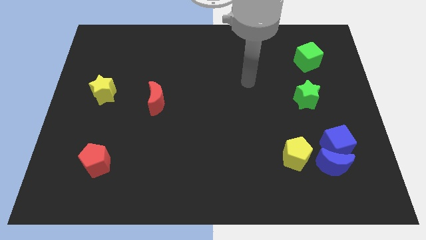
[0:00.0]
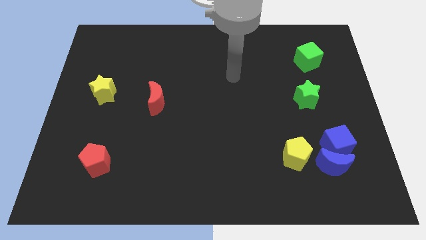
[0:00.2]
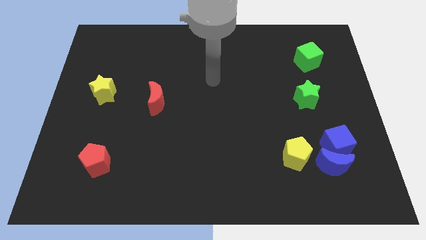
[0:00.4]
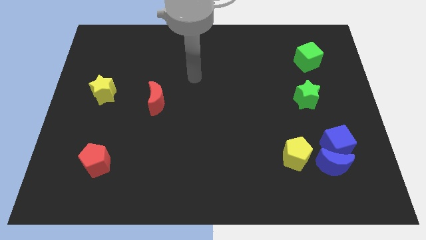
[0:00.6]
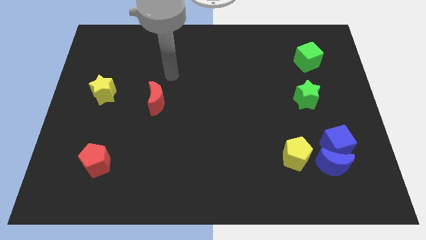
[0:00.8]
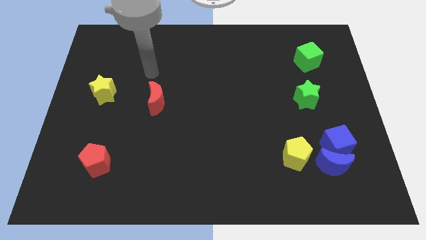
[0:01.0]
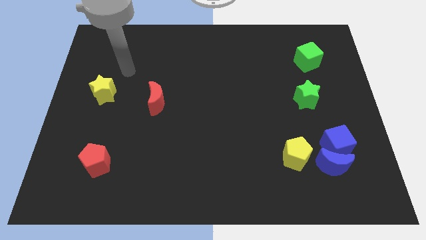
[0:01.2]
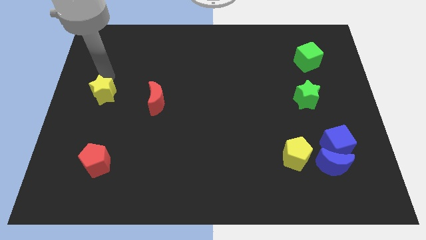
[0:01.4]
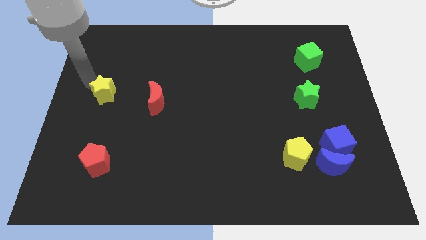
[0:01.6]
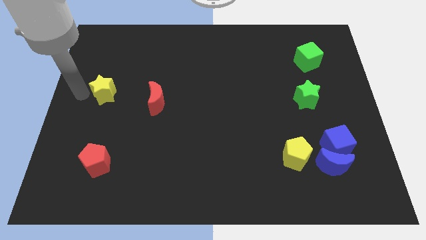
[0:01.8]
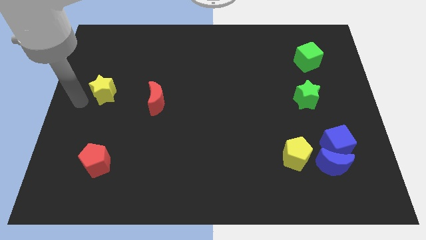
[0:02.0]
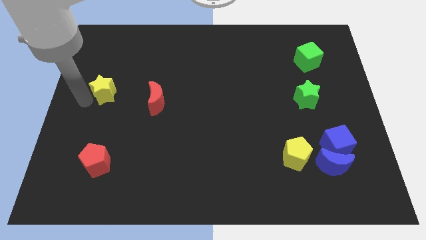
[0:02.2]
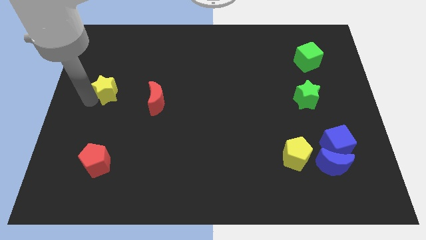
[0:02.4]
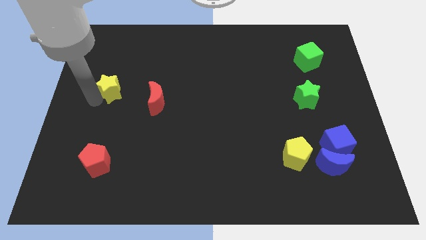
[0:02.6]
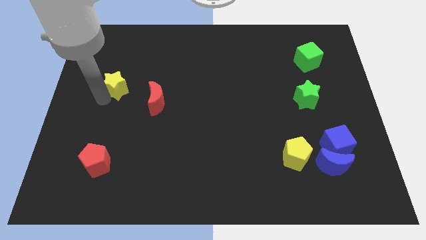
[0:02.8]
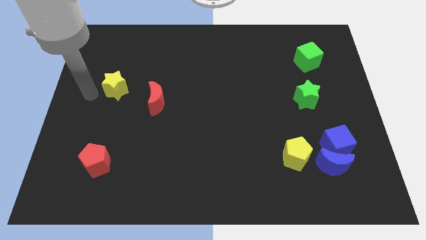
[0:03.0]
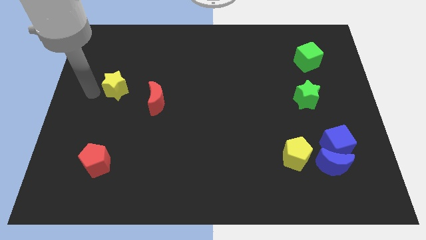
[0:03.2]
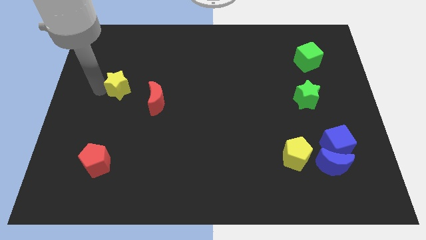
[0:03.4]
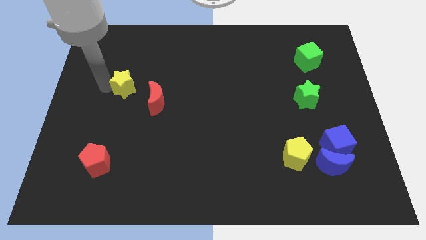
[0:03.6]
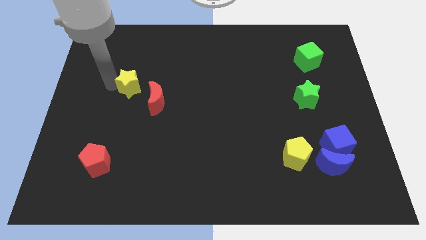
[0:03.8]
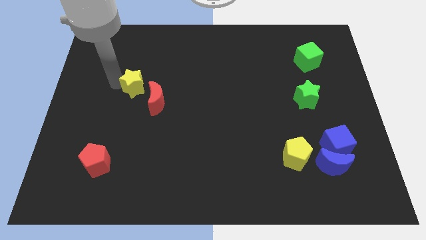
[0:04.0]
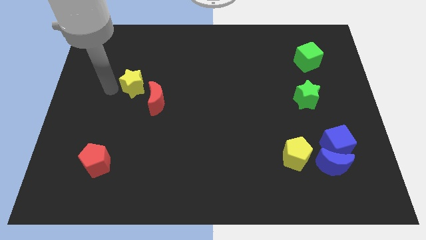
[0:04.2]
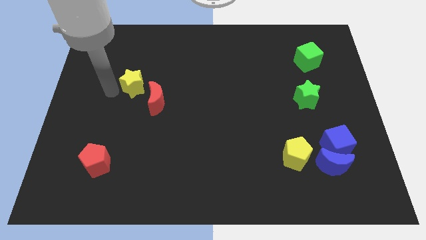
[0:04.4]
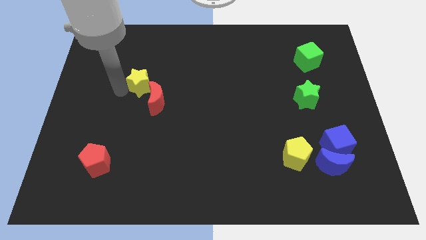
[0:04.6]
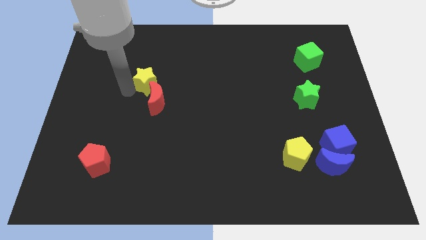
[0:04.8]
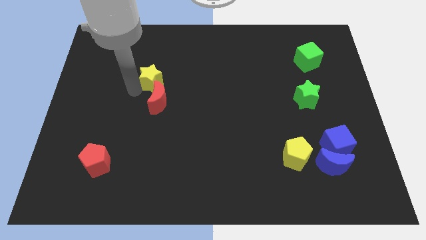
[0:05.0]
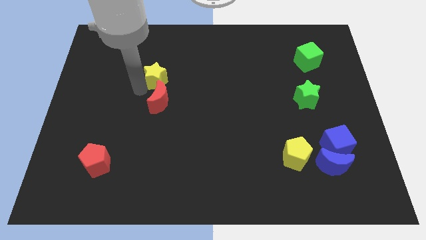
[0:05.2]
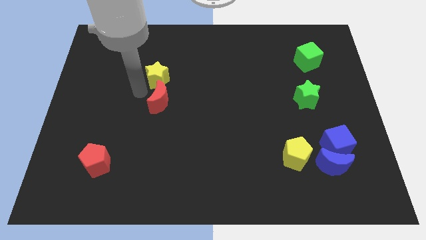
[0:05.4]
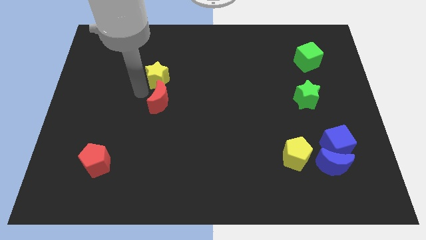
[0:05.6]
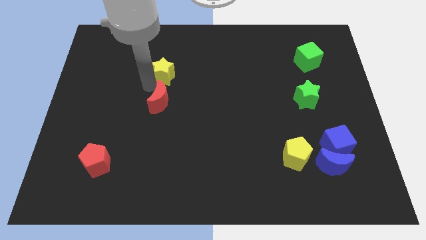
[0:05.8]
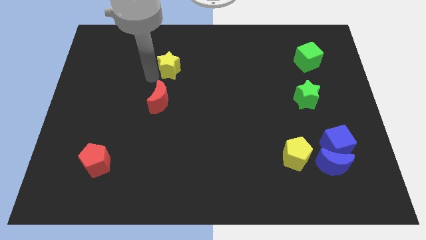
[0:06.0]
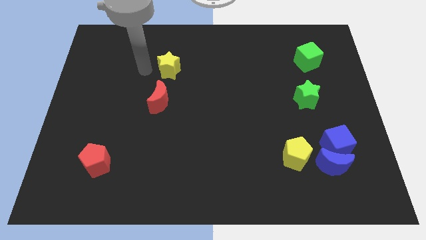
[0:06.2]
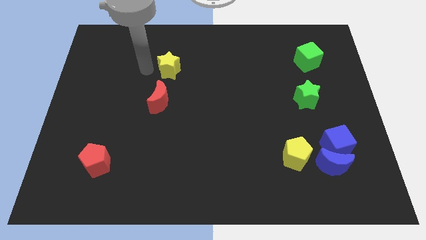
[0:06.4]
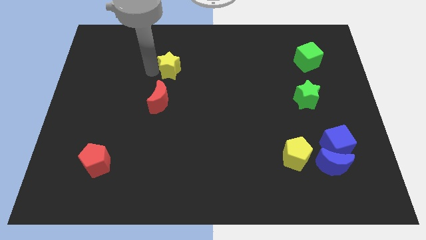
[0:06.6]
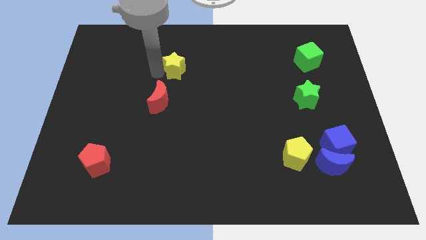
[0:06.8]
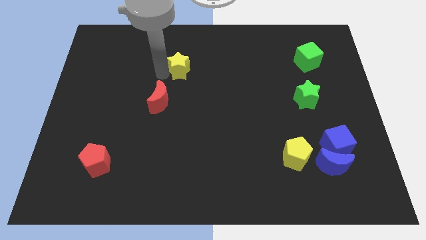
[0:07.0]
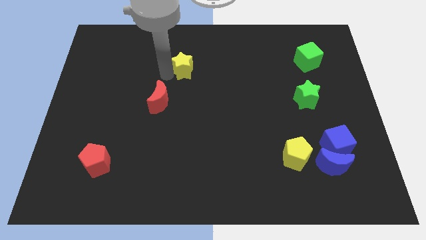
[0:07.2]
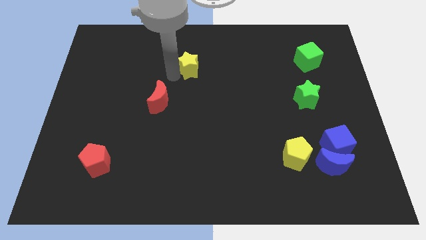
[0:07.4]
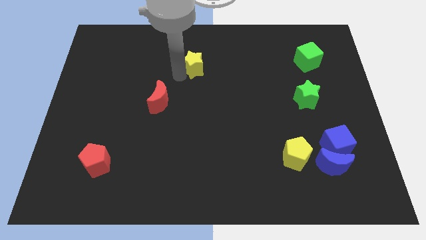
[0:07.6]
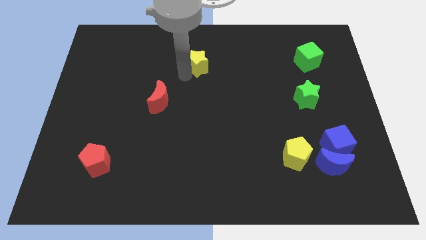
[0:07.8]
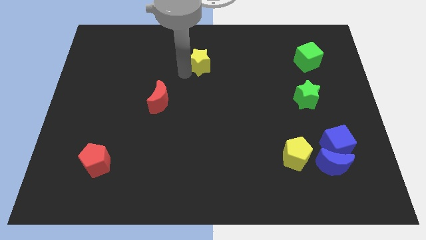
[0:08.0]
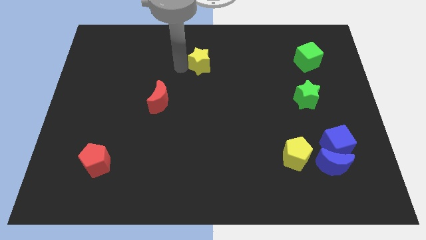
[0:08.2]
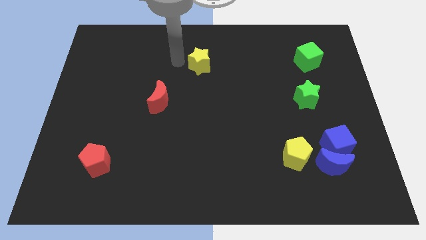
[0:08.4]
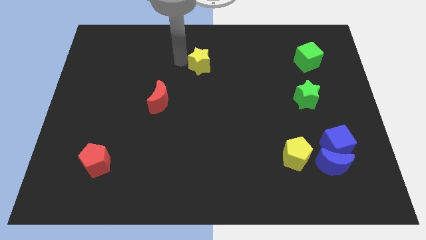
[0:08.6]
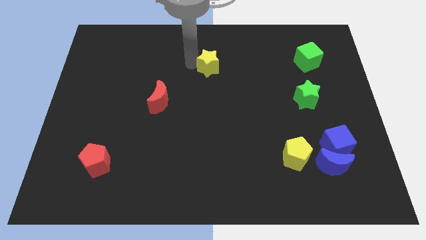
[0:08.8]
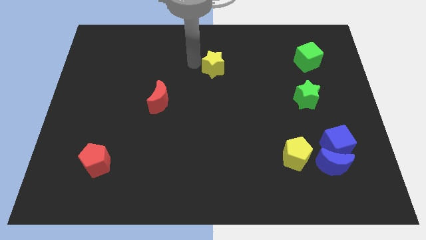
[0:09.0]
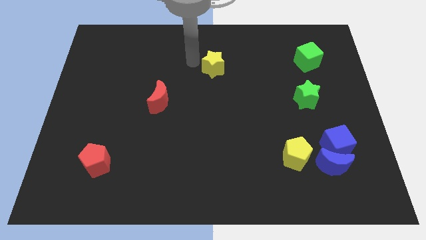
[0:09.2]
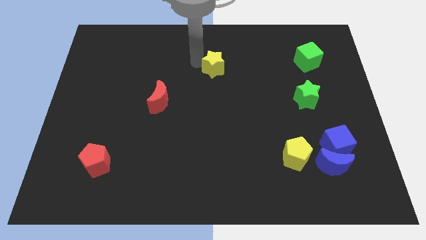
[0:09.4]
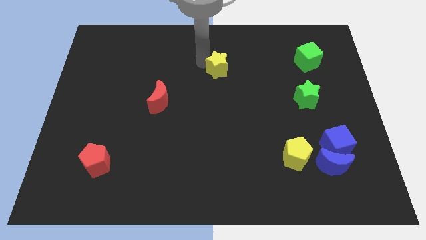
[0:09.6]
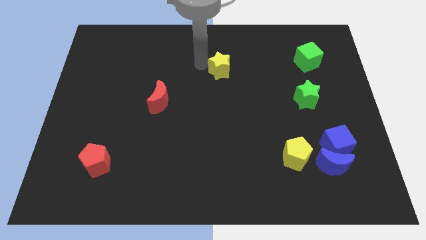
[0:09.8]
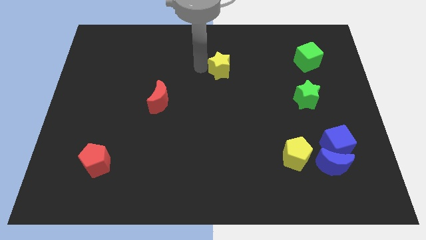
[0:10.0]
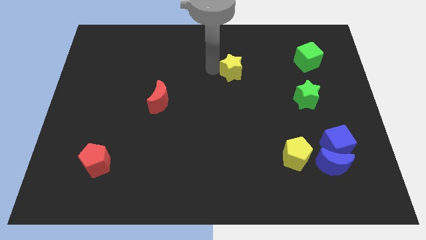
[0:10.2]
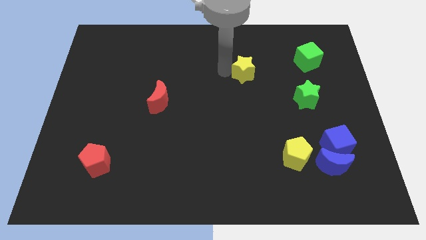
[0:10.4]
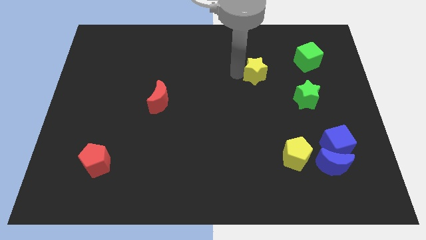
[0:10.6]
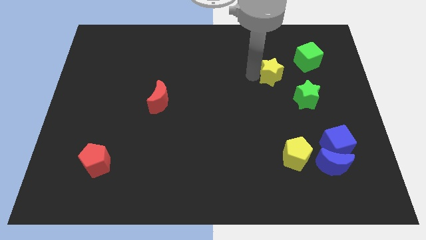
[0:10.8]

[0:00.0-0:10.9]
move the yellow star to the bottom left side of the green cube

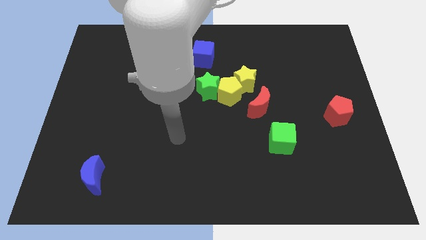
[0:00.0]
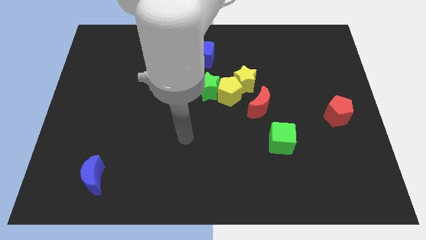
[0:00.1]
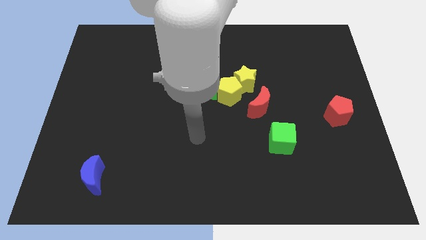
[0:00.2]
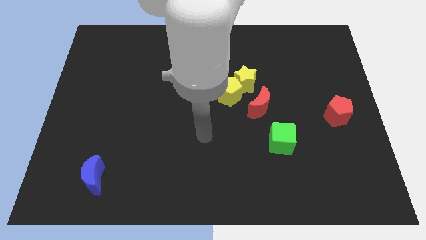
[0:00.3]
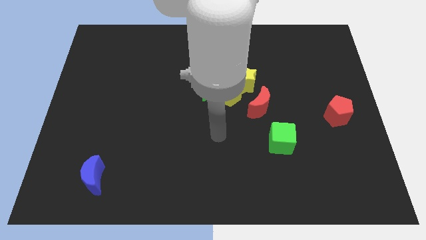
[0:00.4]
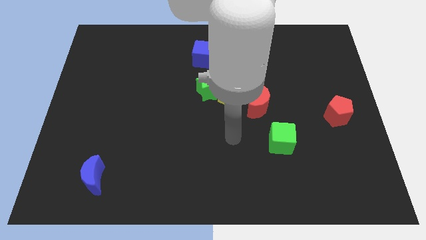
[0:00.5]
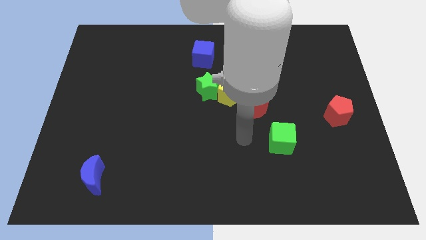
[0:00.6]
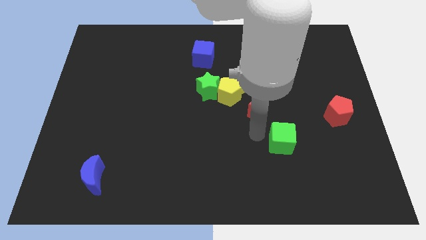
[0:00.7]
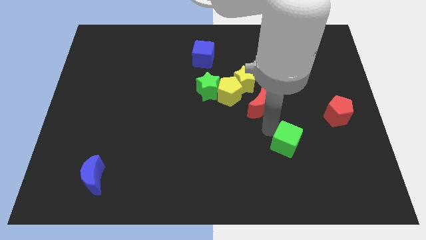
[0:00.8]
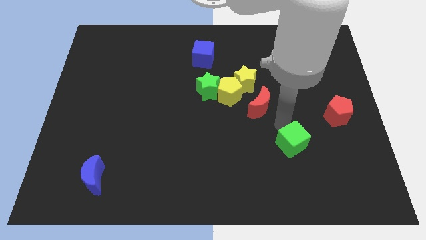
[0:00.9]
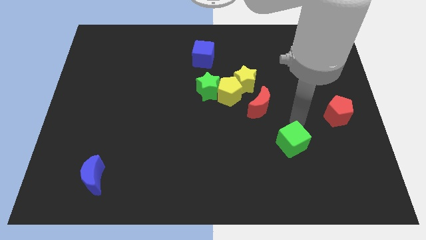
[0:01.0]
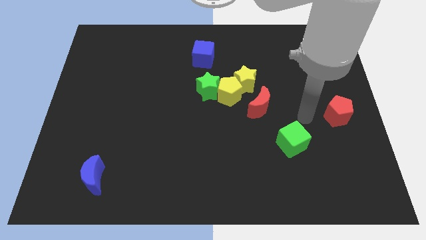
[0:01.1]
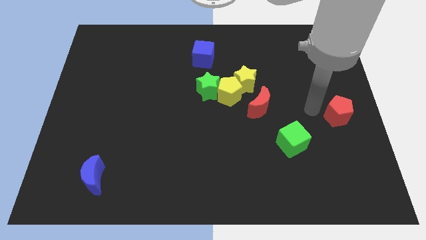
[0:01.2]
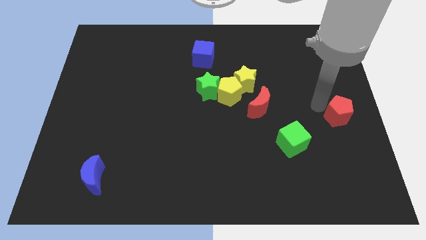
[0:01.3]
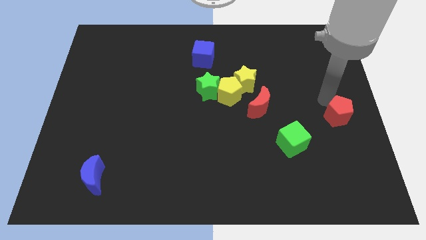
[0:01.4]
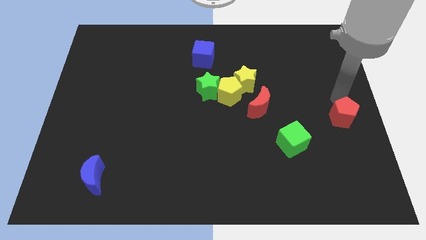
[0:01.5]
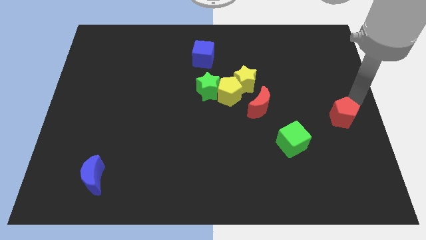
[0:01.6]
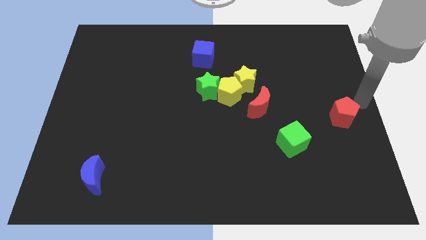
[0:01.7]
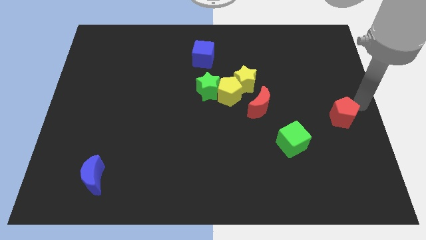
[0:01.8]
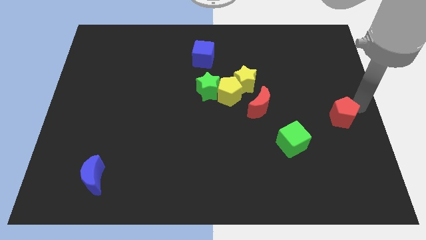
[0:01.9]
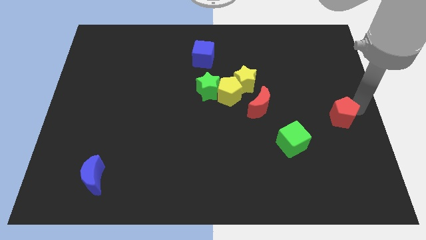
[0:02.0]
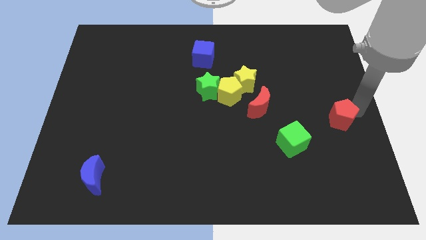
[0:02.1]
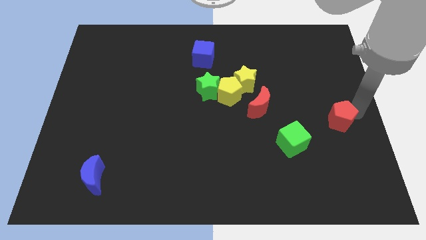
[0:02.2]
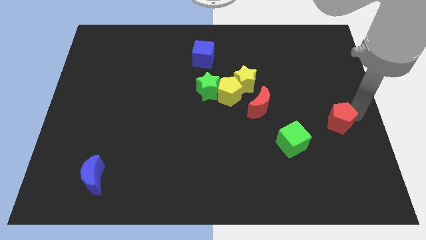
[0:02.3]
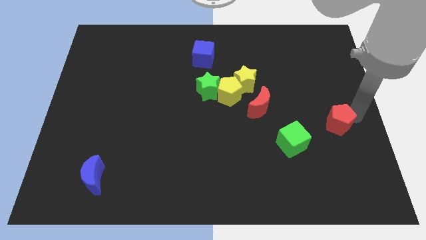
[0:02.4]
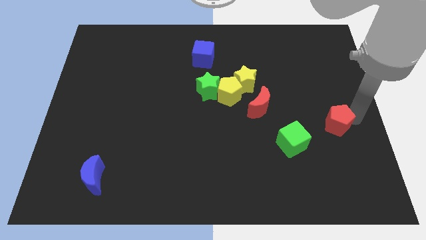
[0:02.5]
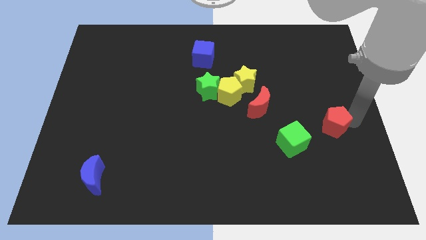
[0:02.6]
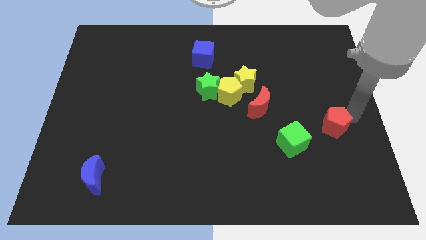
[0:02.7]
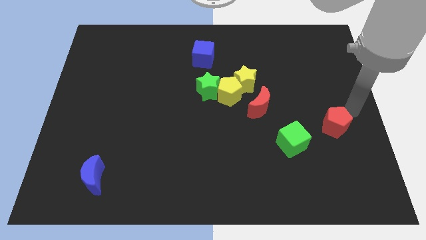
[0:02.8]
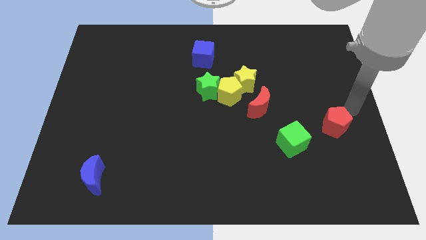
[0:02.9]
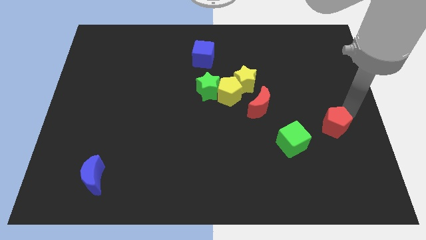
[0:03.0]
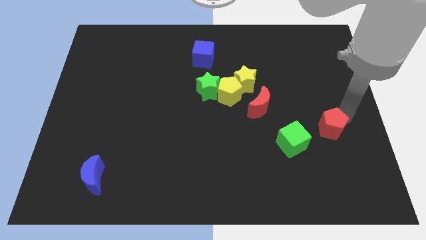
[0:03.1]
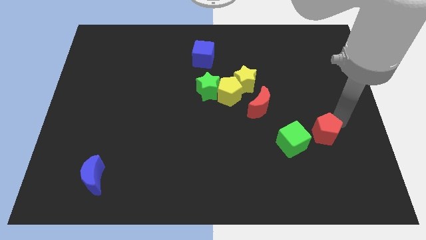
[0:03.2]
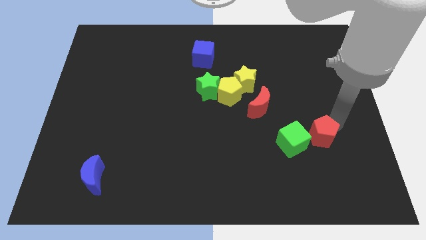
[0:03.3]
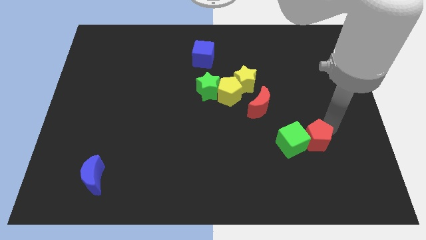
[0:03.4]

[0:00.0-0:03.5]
move the red pentagon to the bottom right side of the green cube
